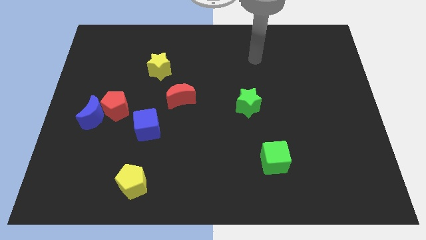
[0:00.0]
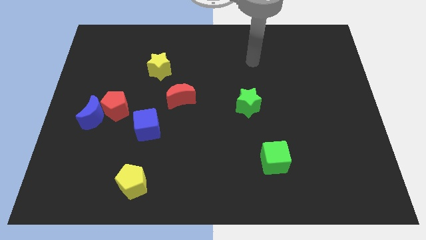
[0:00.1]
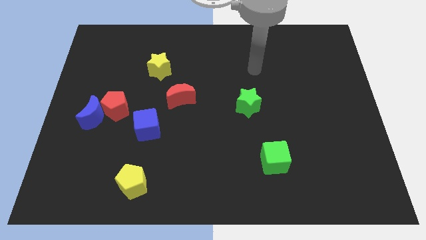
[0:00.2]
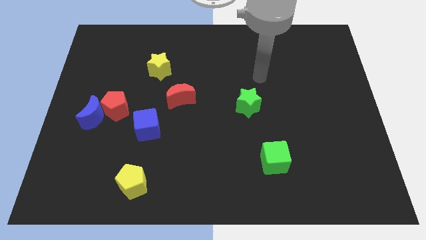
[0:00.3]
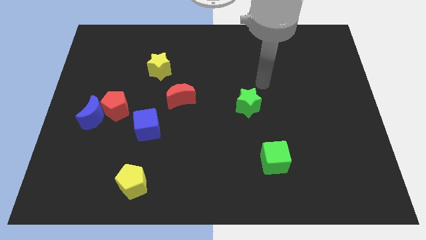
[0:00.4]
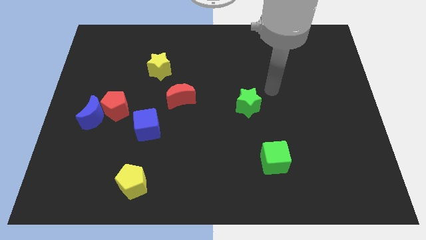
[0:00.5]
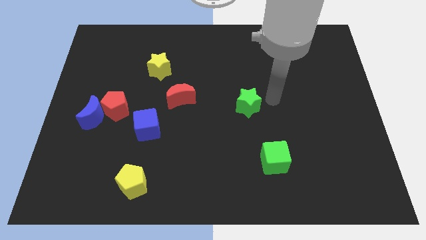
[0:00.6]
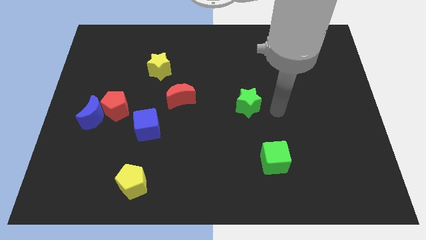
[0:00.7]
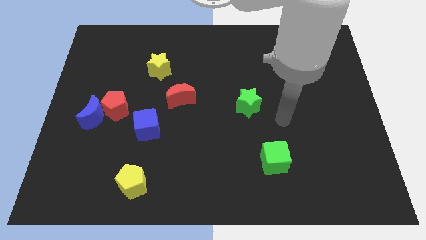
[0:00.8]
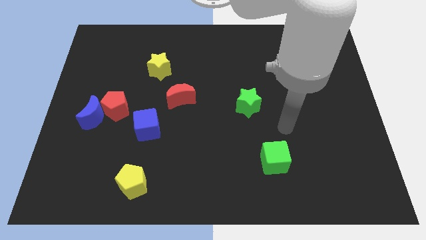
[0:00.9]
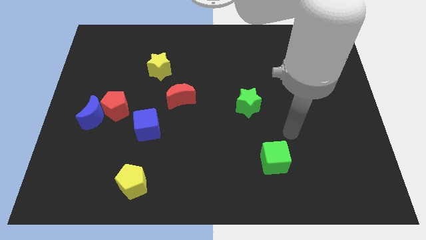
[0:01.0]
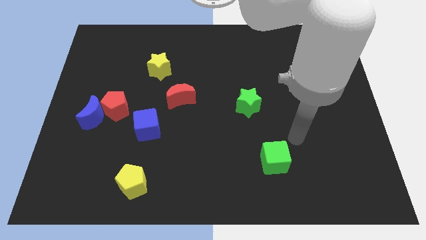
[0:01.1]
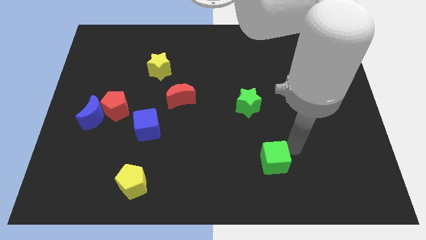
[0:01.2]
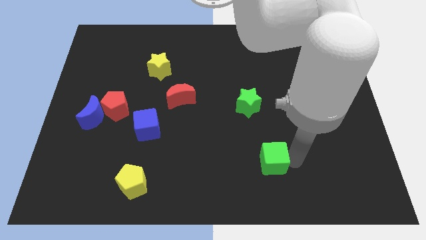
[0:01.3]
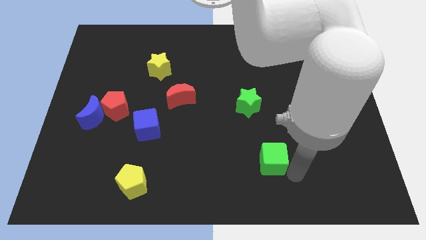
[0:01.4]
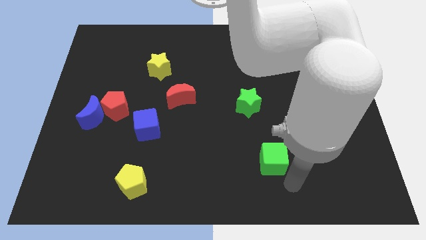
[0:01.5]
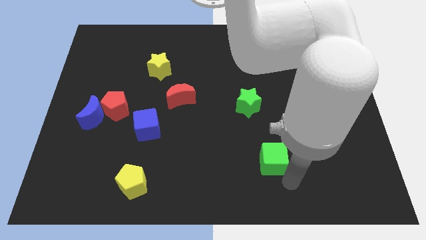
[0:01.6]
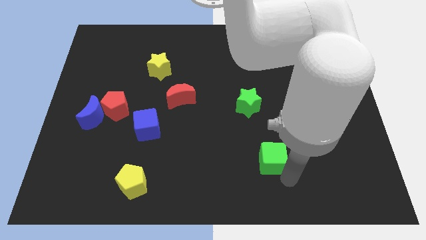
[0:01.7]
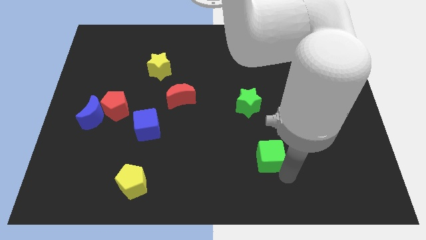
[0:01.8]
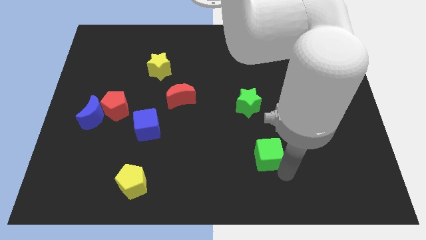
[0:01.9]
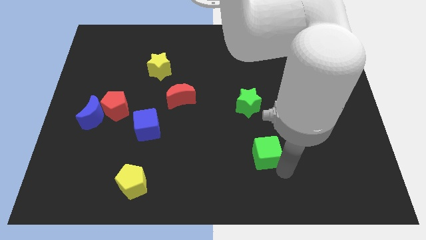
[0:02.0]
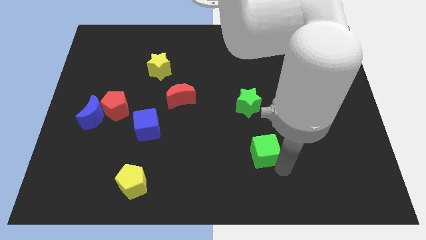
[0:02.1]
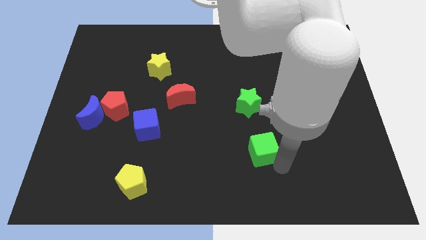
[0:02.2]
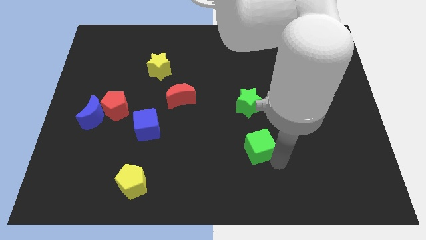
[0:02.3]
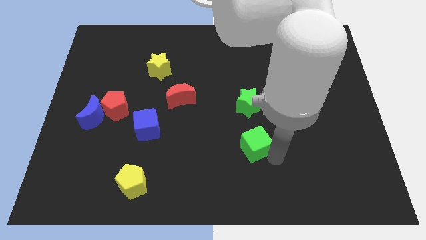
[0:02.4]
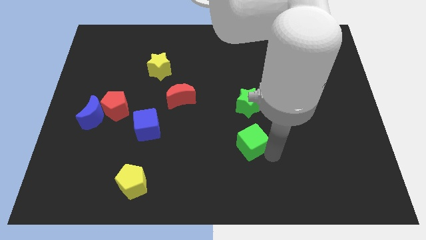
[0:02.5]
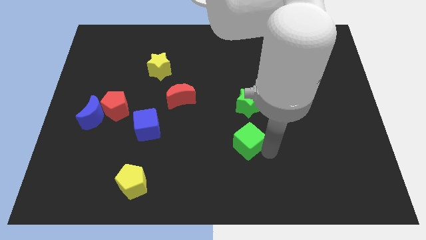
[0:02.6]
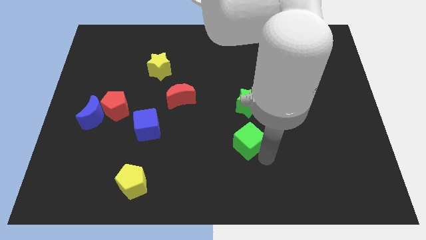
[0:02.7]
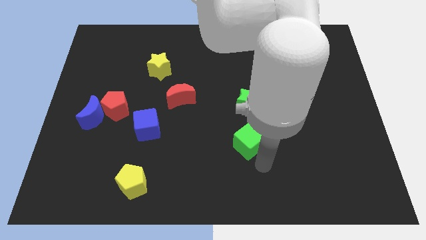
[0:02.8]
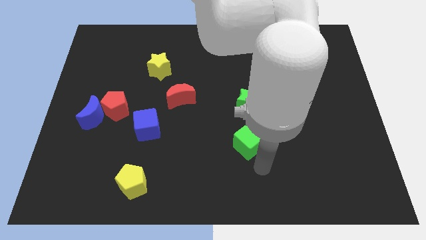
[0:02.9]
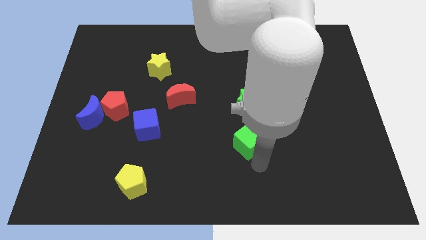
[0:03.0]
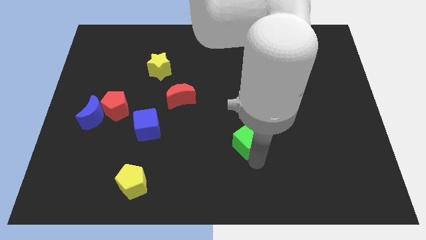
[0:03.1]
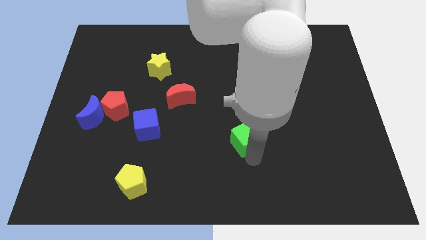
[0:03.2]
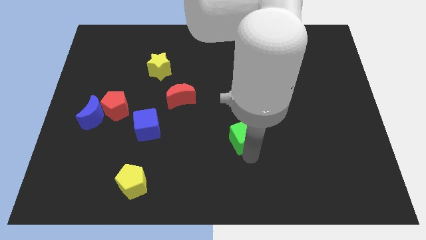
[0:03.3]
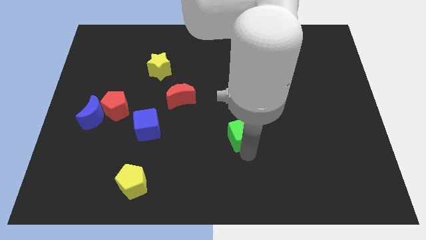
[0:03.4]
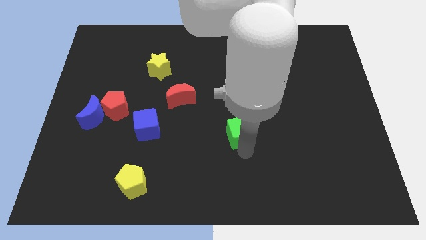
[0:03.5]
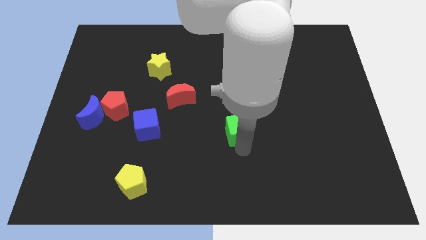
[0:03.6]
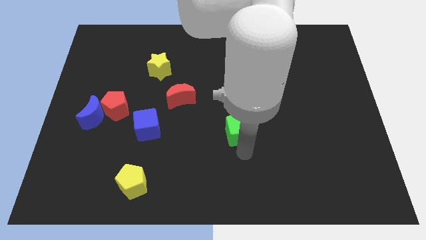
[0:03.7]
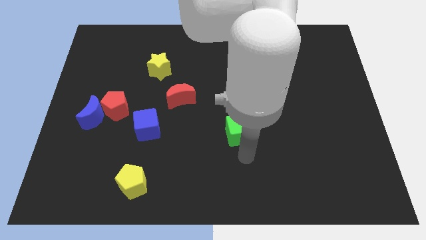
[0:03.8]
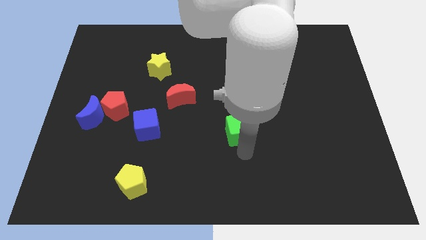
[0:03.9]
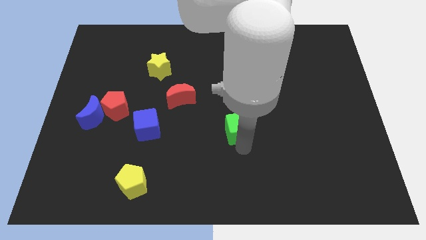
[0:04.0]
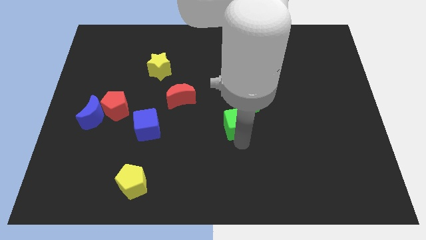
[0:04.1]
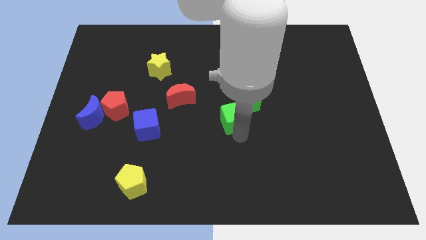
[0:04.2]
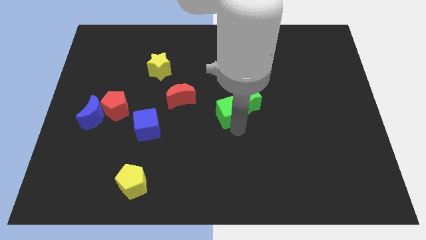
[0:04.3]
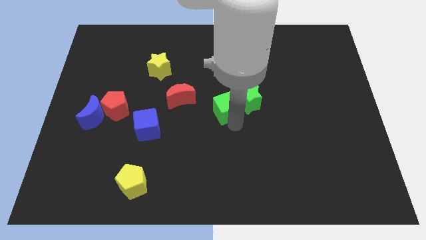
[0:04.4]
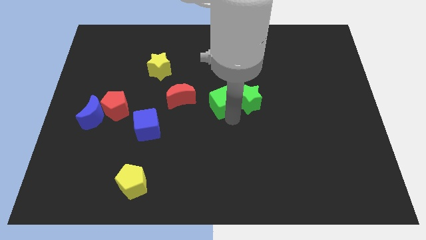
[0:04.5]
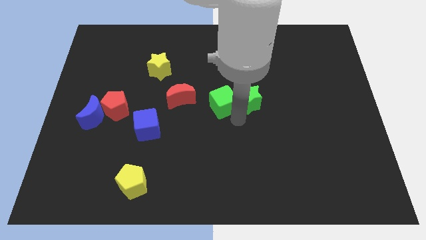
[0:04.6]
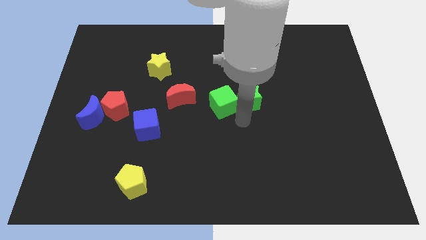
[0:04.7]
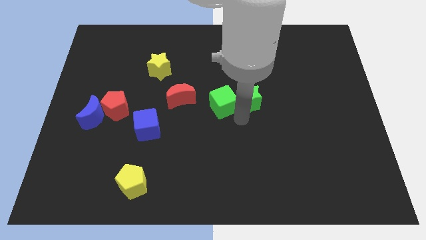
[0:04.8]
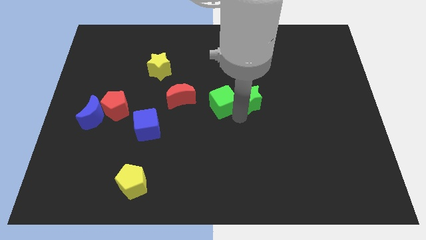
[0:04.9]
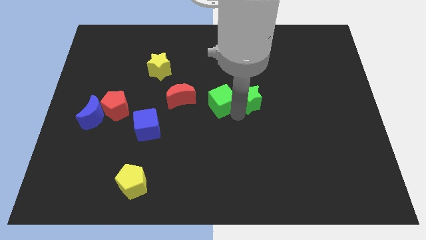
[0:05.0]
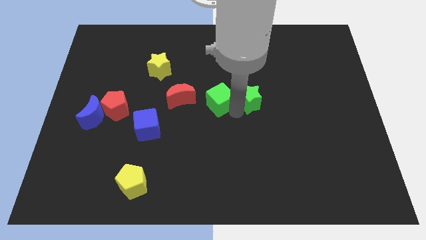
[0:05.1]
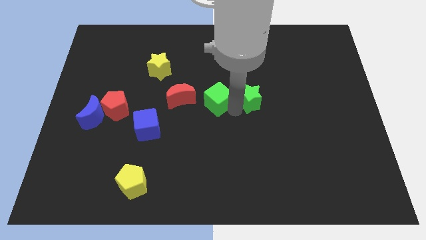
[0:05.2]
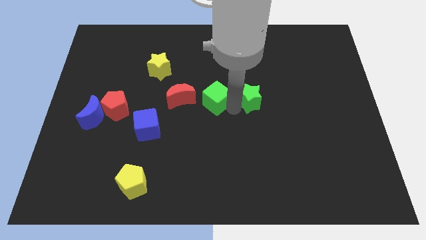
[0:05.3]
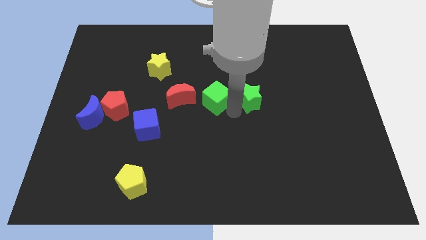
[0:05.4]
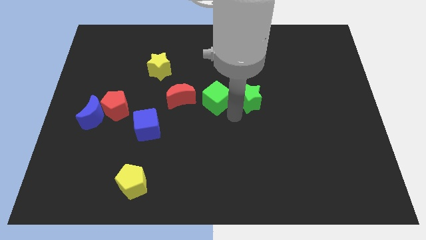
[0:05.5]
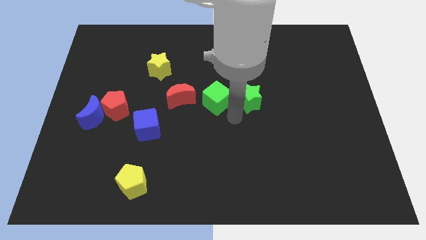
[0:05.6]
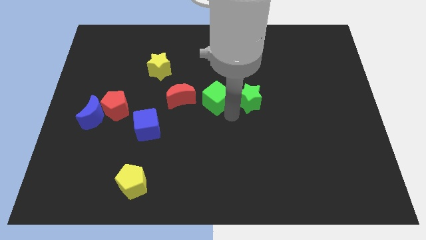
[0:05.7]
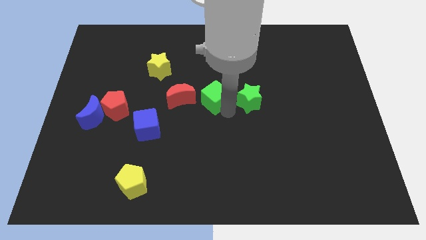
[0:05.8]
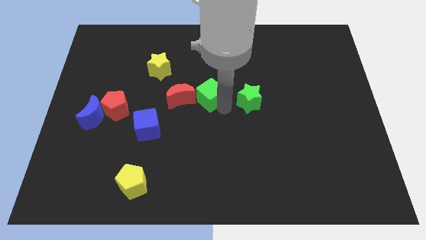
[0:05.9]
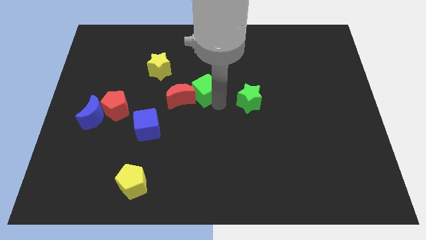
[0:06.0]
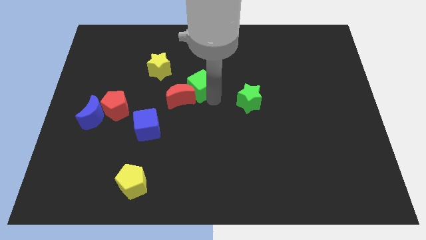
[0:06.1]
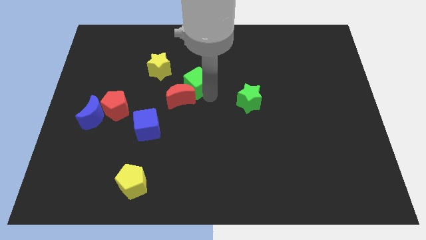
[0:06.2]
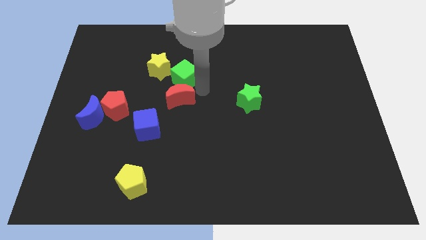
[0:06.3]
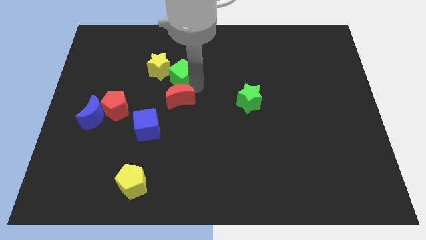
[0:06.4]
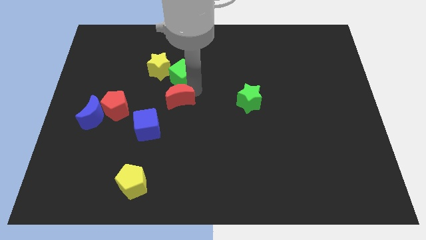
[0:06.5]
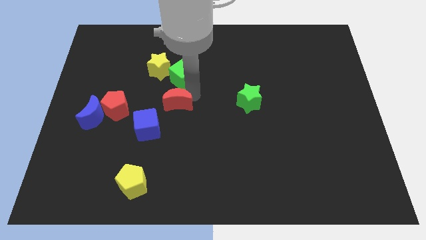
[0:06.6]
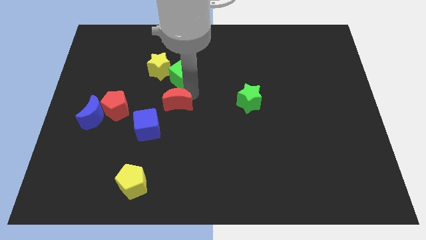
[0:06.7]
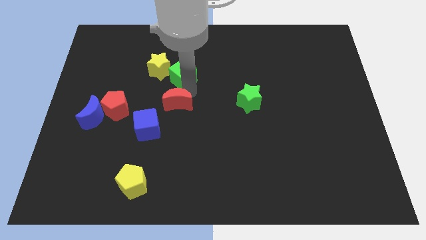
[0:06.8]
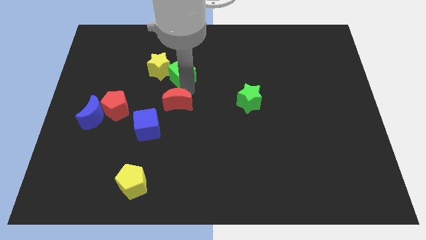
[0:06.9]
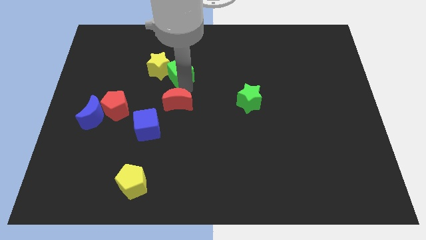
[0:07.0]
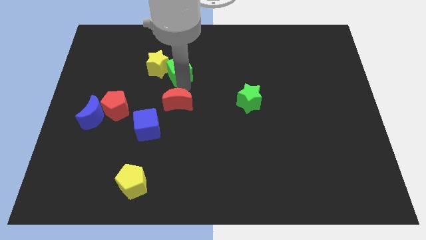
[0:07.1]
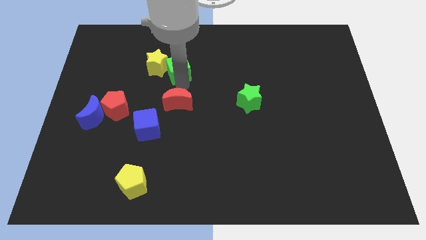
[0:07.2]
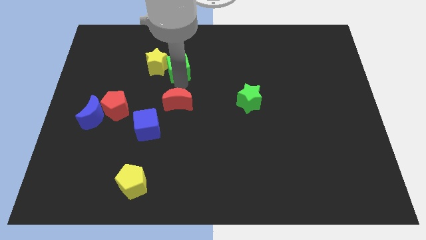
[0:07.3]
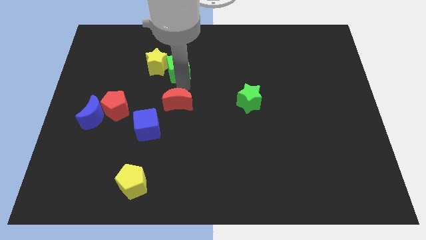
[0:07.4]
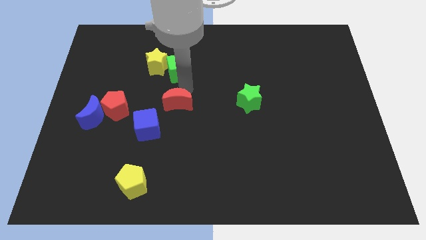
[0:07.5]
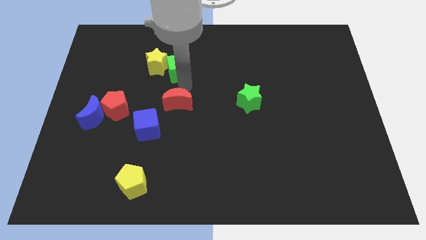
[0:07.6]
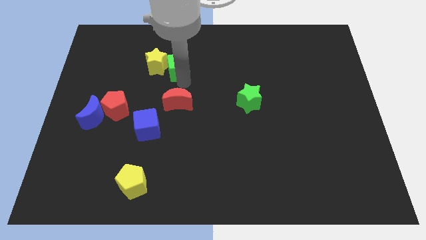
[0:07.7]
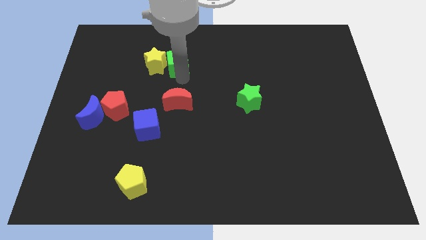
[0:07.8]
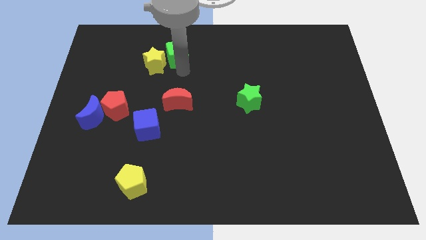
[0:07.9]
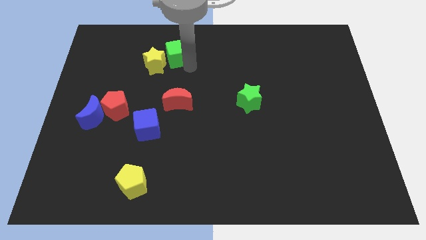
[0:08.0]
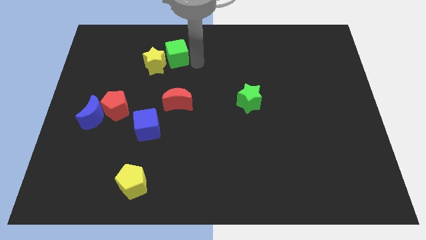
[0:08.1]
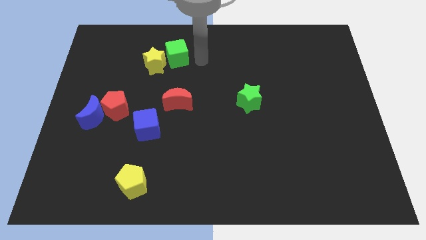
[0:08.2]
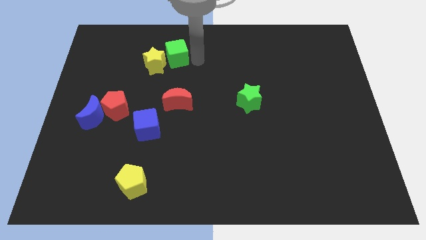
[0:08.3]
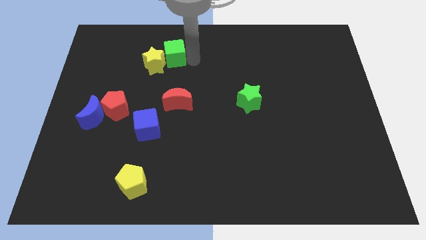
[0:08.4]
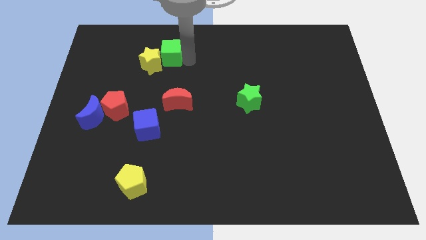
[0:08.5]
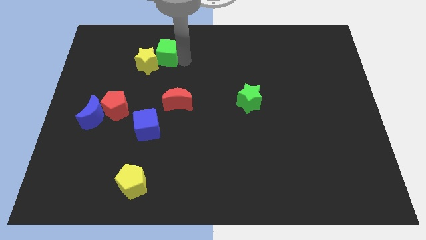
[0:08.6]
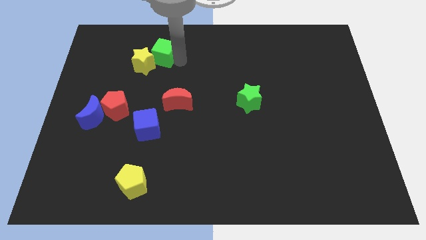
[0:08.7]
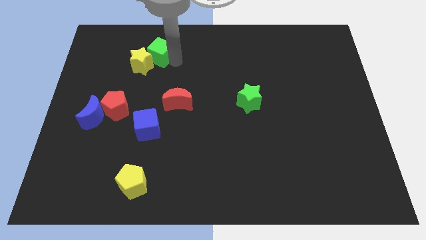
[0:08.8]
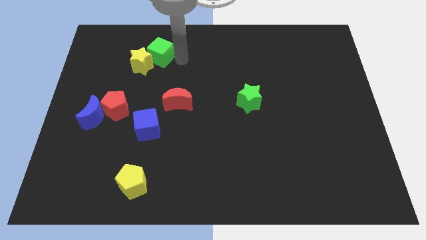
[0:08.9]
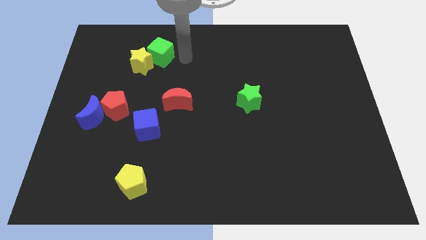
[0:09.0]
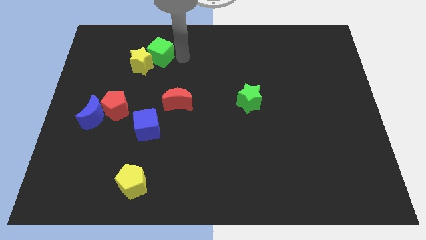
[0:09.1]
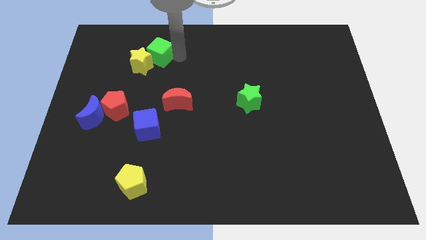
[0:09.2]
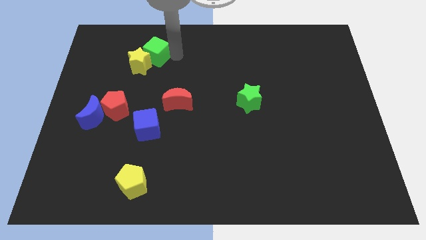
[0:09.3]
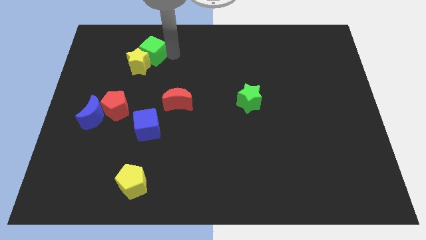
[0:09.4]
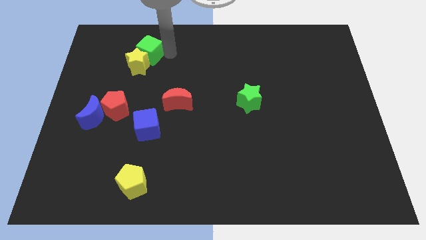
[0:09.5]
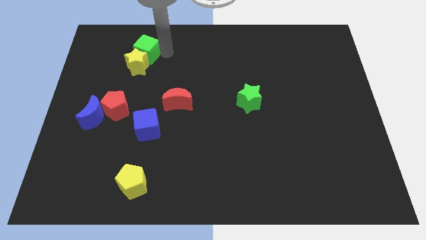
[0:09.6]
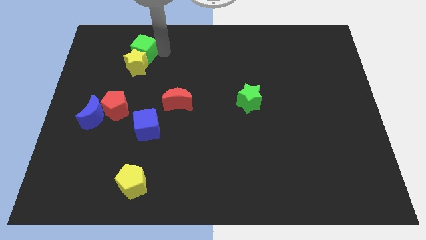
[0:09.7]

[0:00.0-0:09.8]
push the green cube diagonally up and to the left of the yellow star
